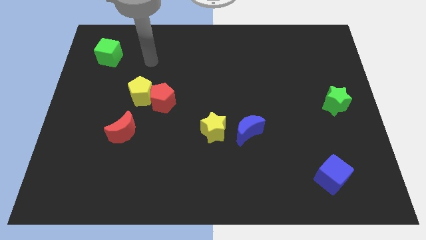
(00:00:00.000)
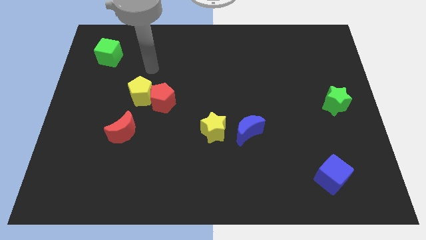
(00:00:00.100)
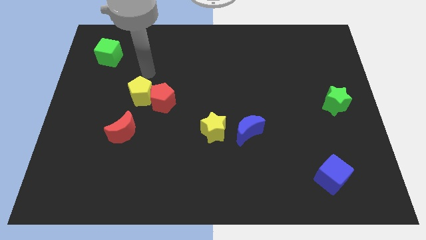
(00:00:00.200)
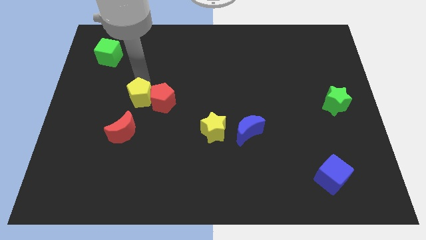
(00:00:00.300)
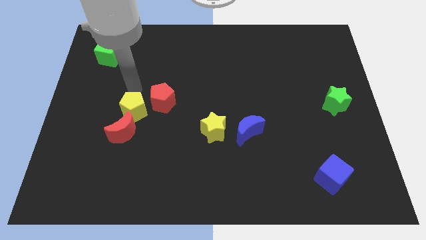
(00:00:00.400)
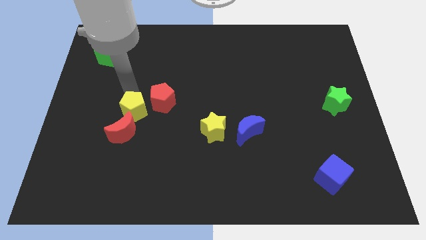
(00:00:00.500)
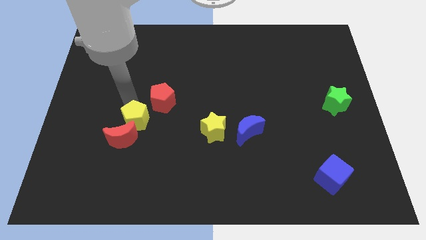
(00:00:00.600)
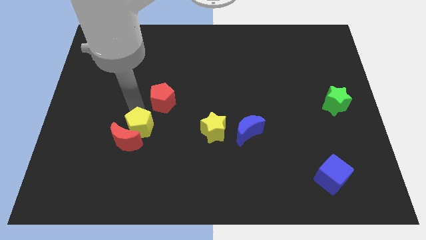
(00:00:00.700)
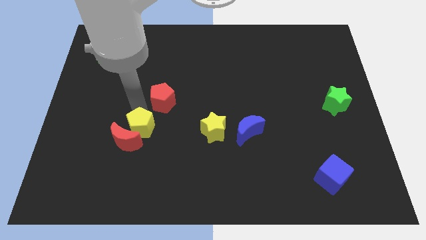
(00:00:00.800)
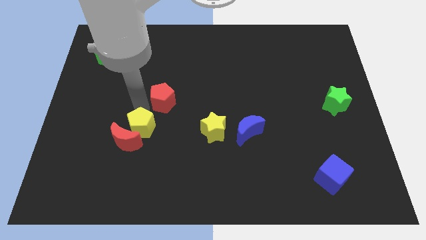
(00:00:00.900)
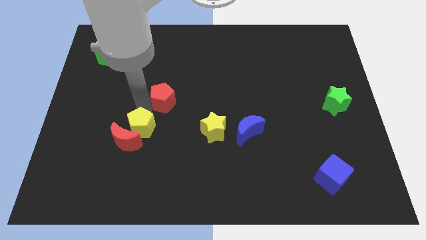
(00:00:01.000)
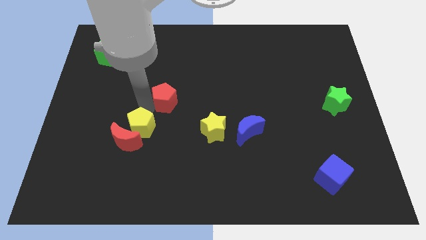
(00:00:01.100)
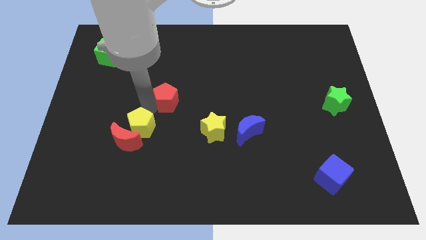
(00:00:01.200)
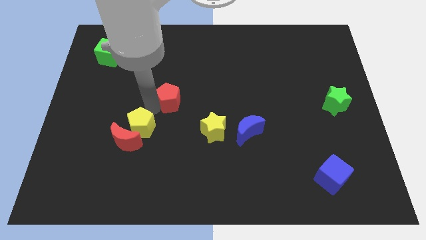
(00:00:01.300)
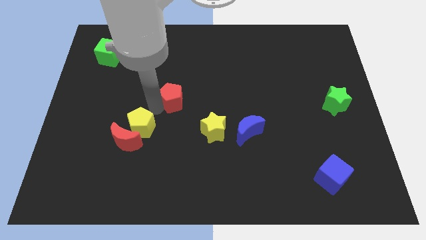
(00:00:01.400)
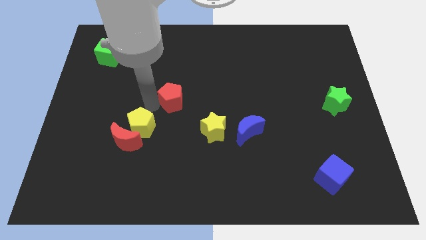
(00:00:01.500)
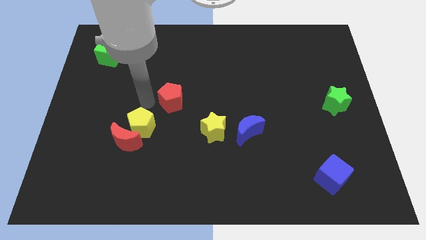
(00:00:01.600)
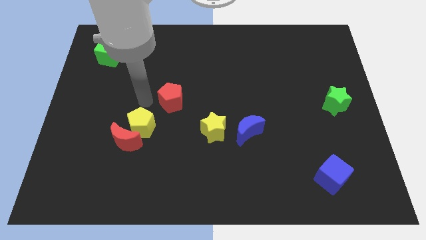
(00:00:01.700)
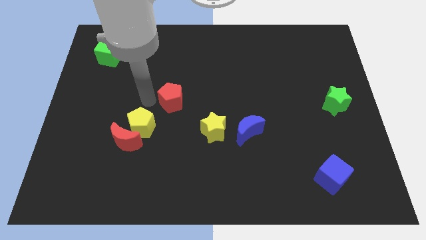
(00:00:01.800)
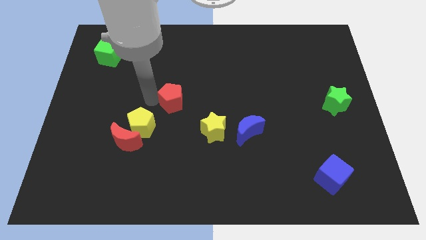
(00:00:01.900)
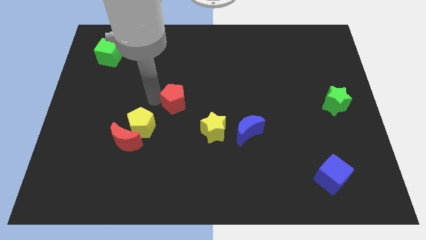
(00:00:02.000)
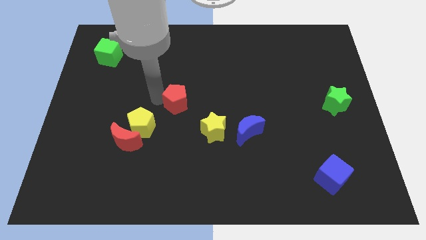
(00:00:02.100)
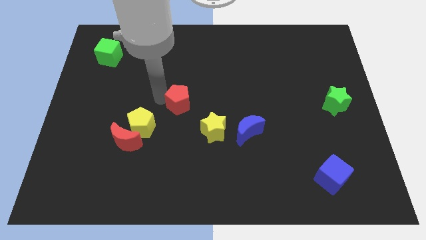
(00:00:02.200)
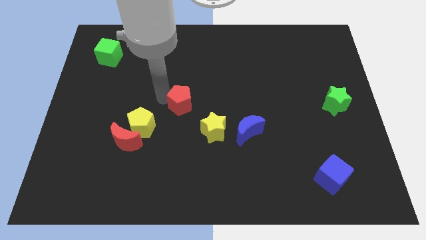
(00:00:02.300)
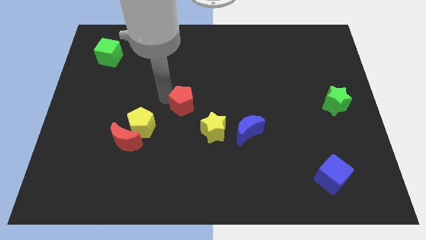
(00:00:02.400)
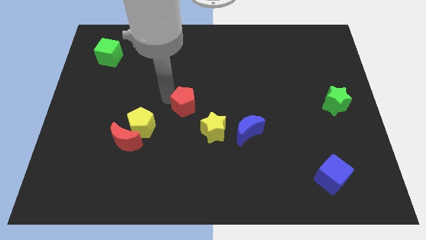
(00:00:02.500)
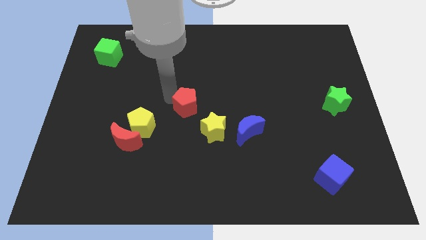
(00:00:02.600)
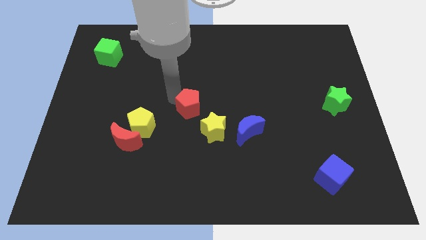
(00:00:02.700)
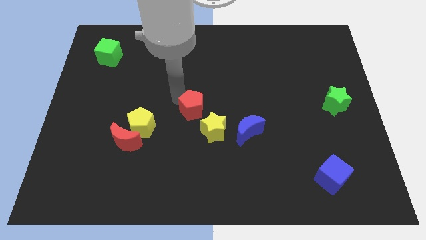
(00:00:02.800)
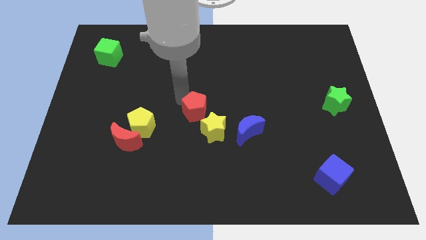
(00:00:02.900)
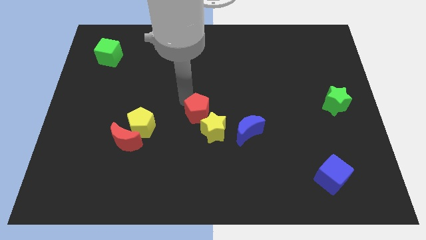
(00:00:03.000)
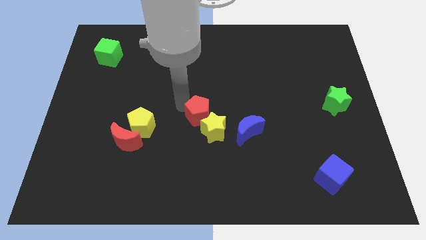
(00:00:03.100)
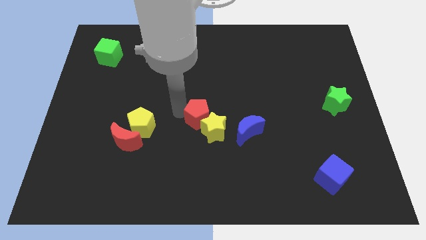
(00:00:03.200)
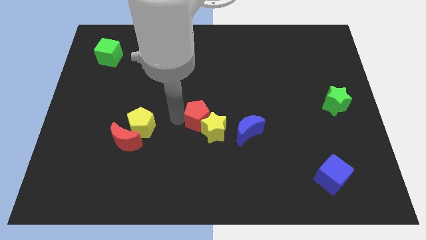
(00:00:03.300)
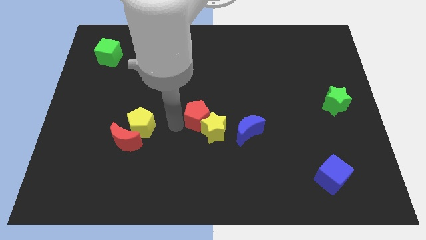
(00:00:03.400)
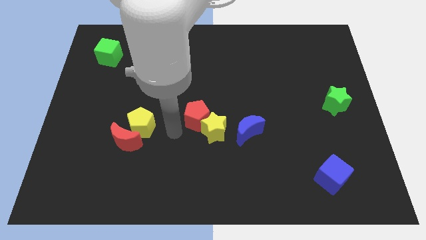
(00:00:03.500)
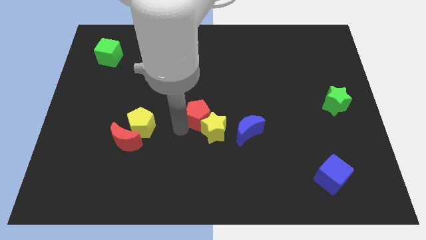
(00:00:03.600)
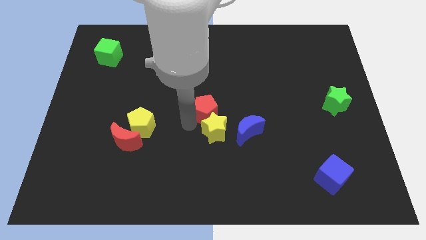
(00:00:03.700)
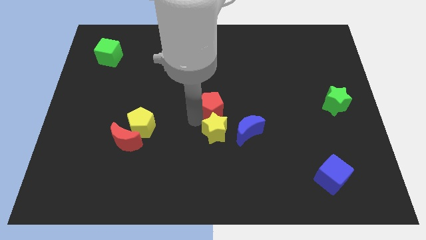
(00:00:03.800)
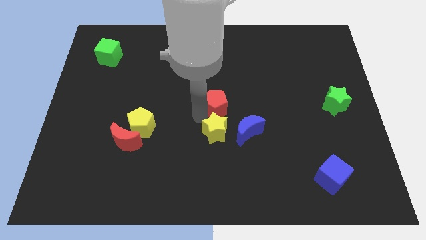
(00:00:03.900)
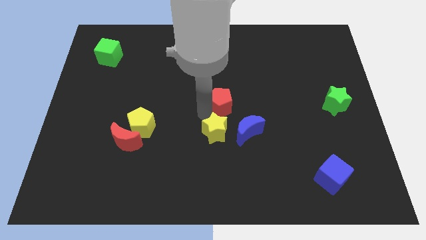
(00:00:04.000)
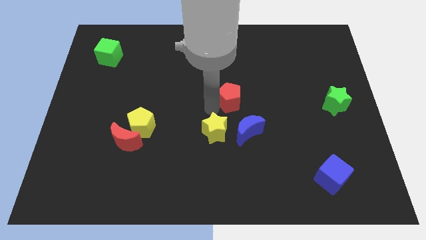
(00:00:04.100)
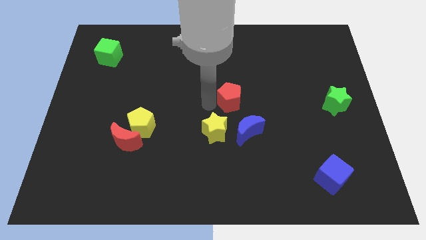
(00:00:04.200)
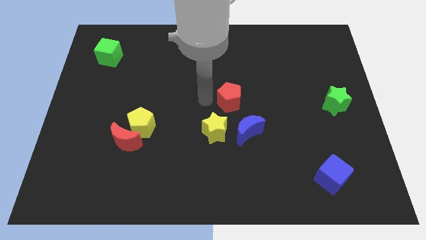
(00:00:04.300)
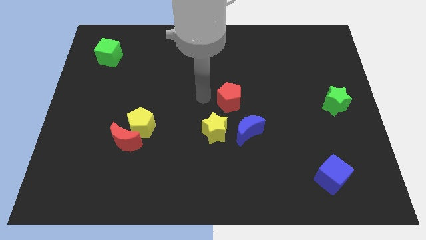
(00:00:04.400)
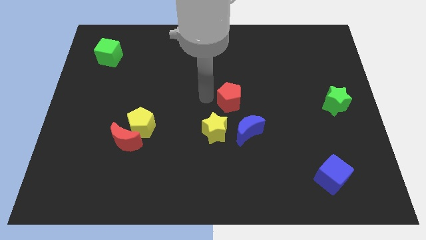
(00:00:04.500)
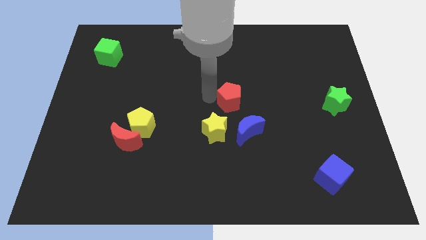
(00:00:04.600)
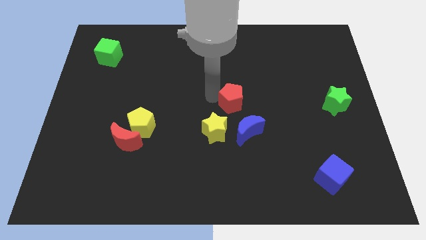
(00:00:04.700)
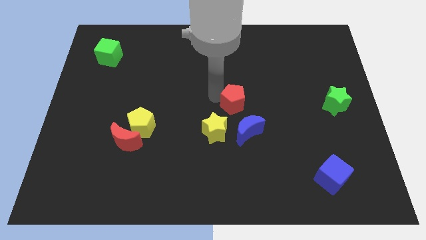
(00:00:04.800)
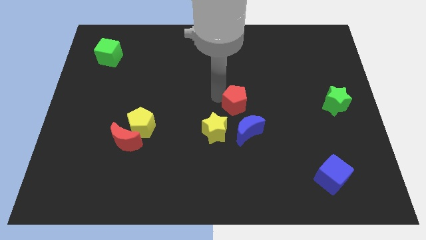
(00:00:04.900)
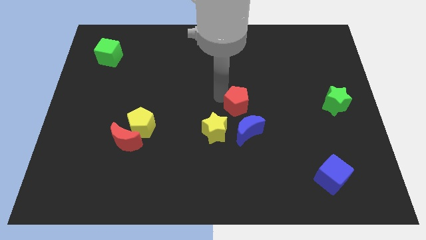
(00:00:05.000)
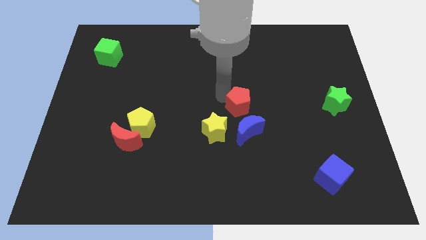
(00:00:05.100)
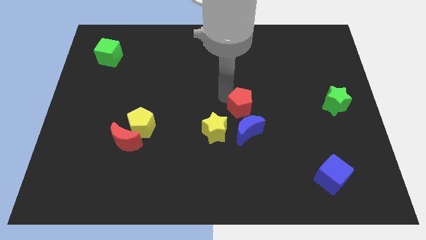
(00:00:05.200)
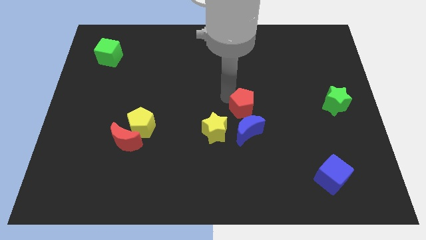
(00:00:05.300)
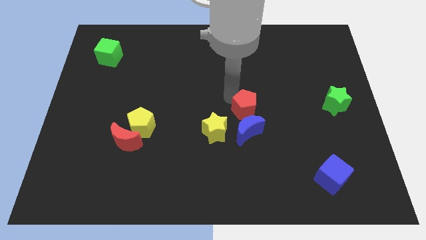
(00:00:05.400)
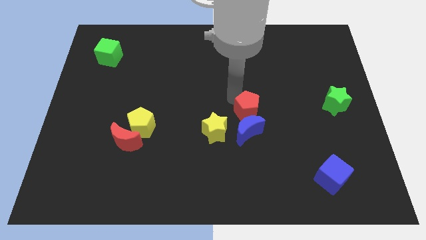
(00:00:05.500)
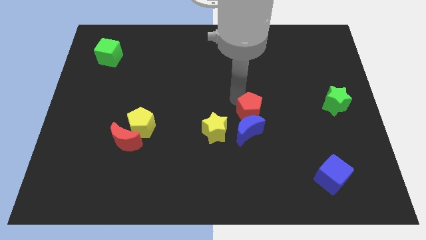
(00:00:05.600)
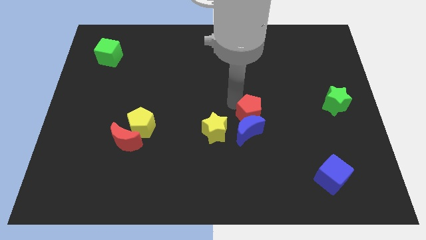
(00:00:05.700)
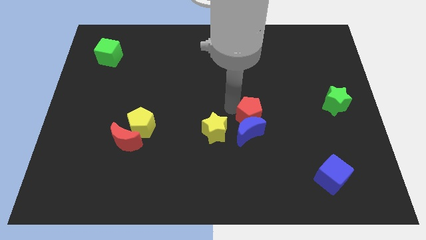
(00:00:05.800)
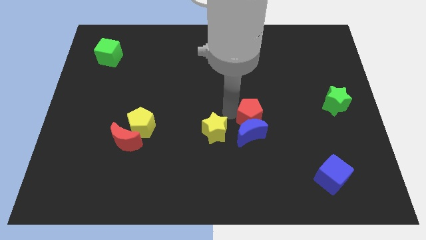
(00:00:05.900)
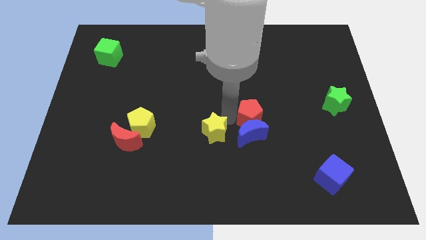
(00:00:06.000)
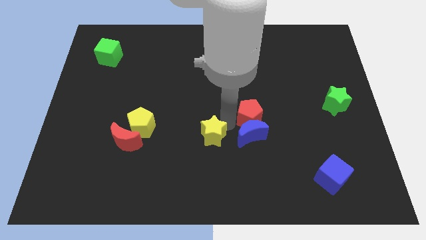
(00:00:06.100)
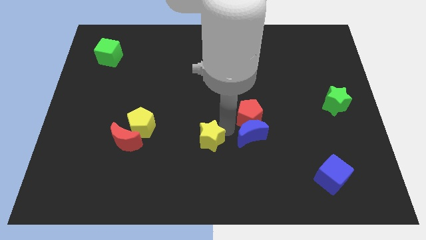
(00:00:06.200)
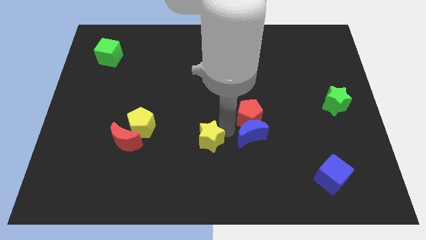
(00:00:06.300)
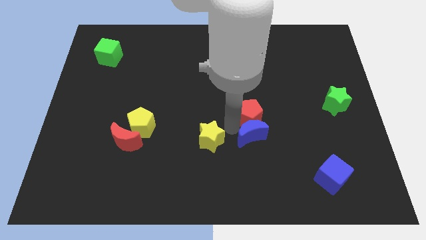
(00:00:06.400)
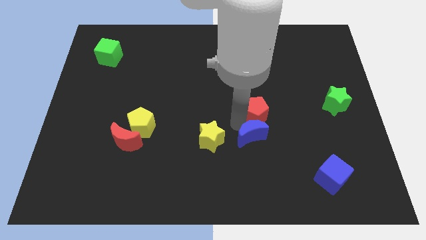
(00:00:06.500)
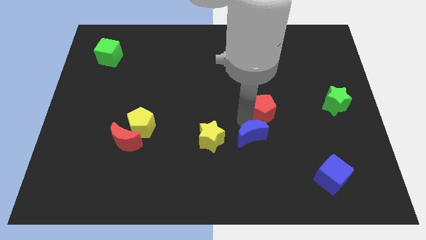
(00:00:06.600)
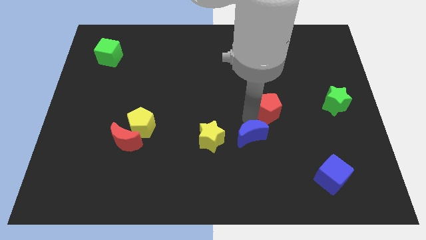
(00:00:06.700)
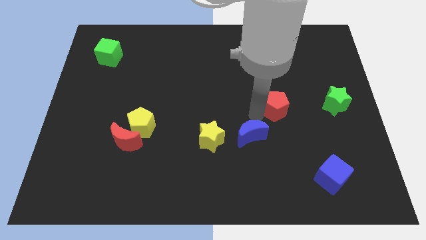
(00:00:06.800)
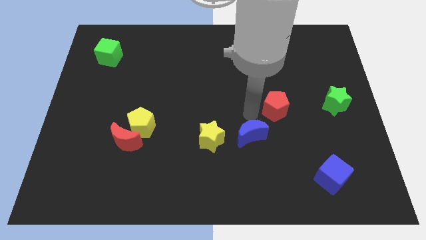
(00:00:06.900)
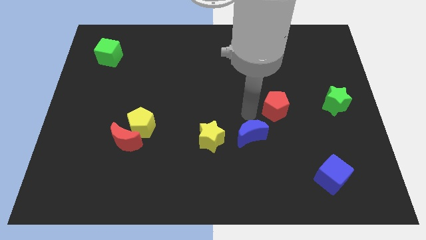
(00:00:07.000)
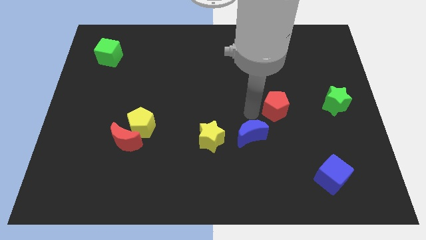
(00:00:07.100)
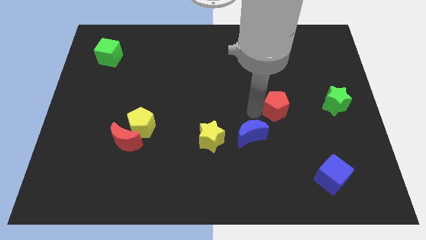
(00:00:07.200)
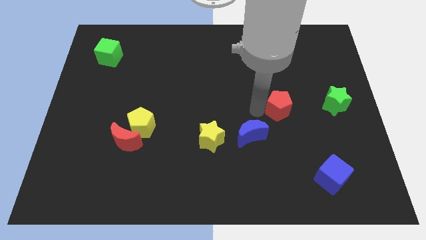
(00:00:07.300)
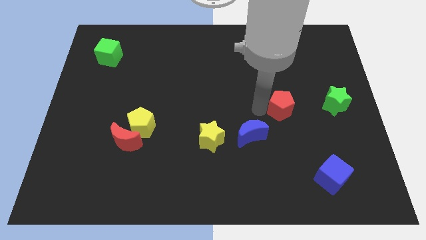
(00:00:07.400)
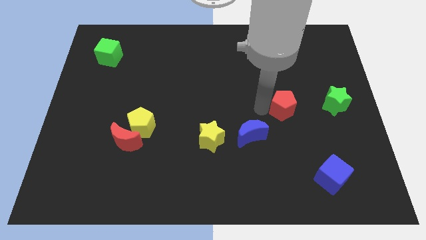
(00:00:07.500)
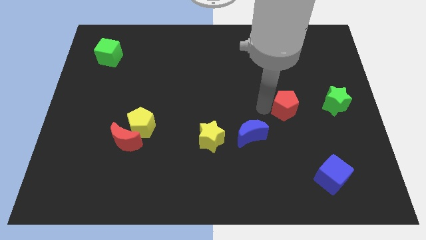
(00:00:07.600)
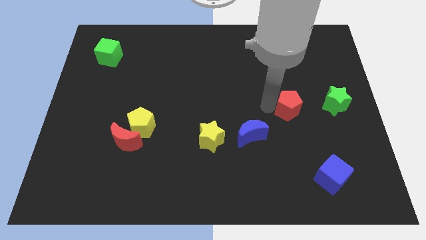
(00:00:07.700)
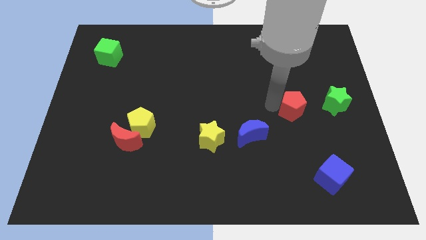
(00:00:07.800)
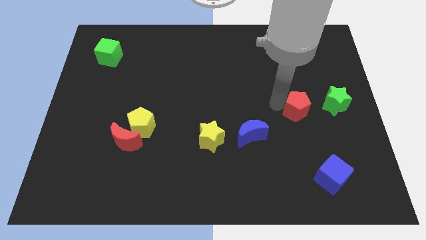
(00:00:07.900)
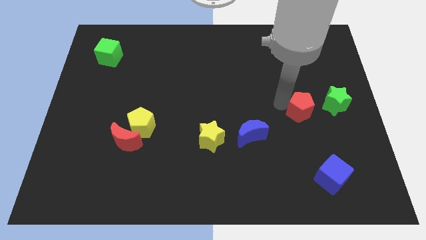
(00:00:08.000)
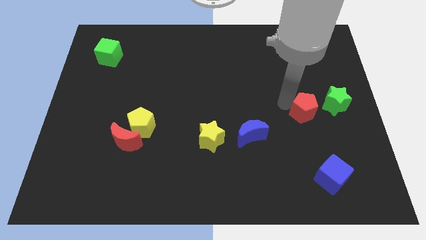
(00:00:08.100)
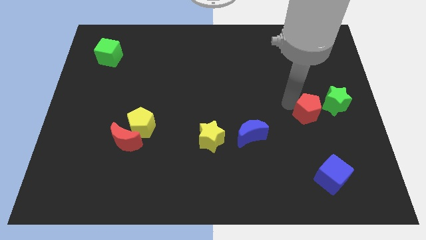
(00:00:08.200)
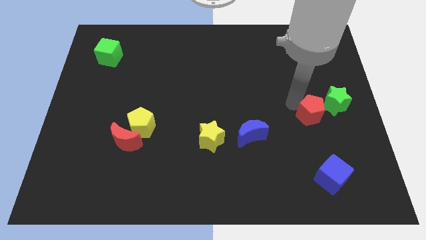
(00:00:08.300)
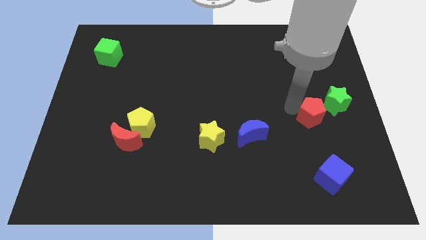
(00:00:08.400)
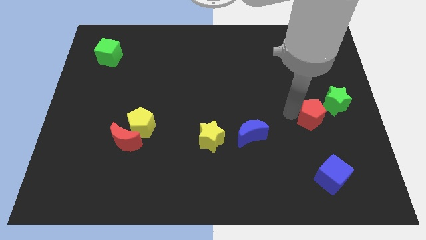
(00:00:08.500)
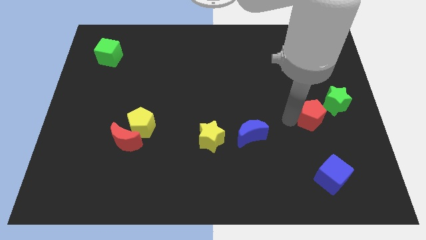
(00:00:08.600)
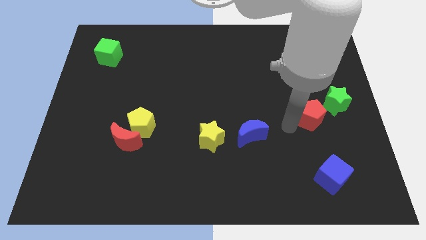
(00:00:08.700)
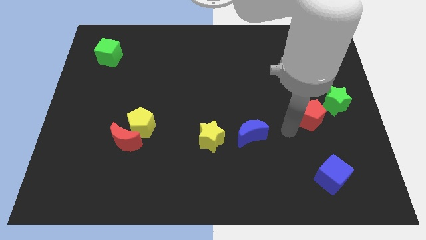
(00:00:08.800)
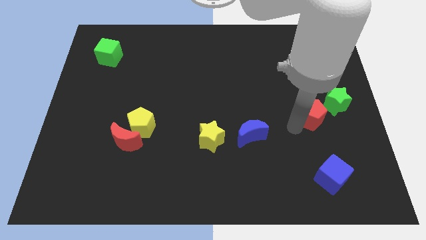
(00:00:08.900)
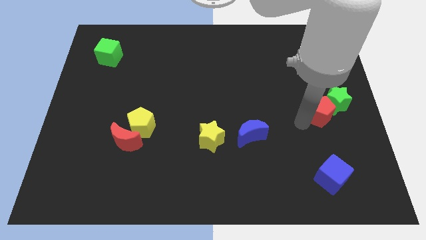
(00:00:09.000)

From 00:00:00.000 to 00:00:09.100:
push the red pentagon to the green star
